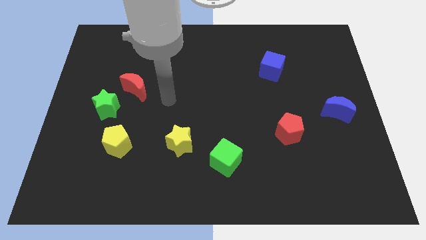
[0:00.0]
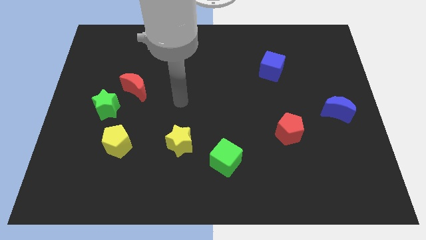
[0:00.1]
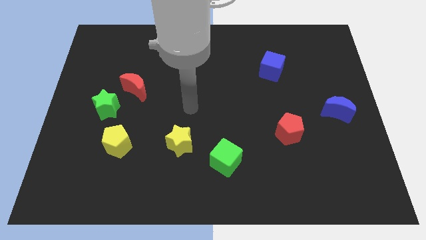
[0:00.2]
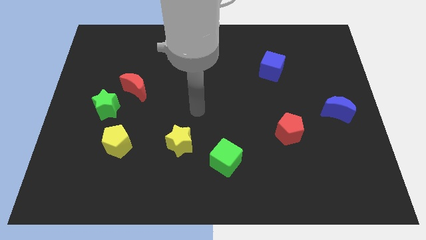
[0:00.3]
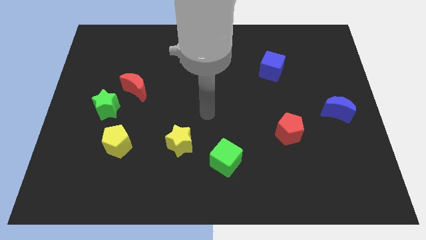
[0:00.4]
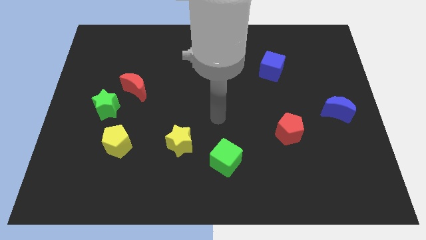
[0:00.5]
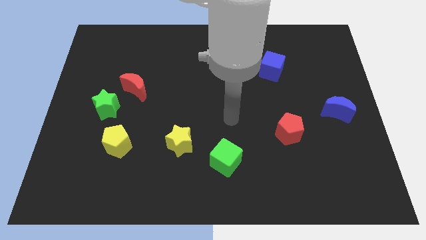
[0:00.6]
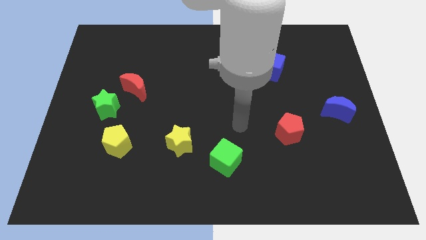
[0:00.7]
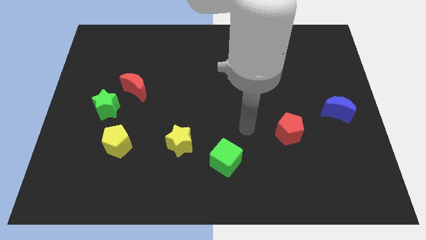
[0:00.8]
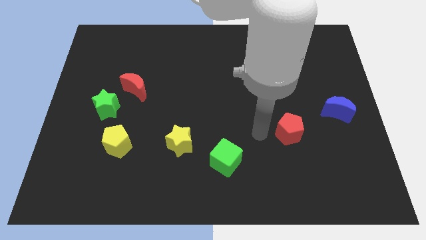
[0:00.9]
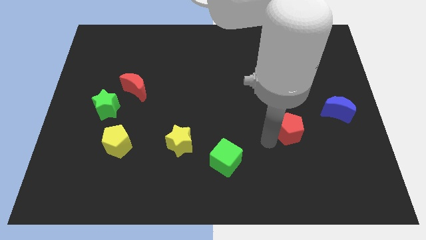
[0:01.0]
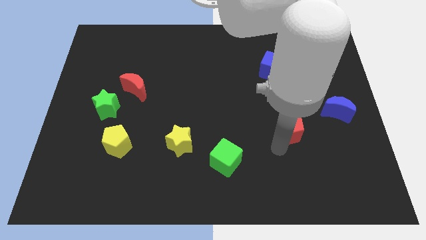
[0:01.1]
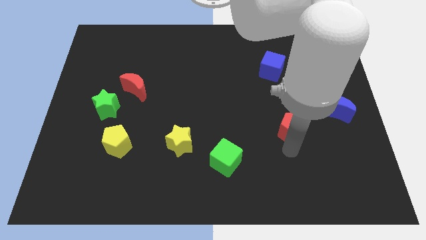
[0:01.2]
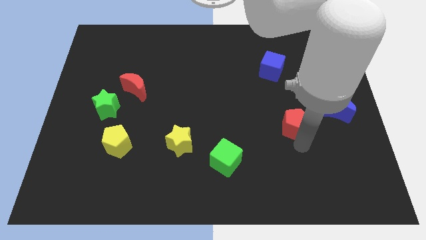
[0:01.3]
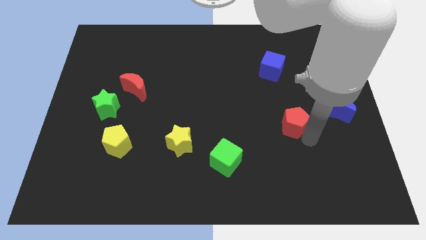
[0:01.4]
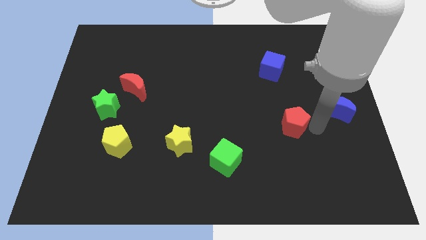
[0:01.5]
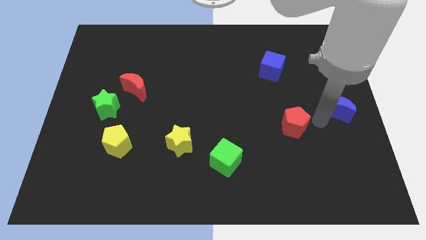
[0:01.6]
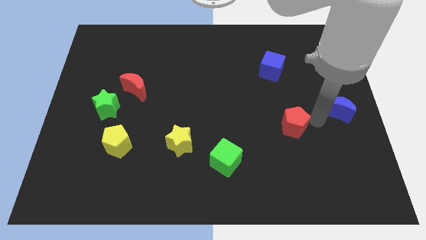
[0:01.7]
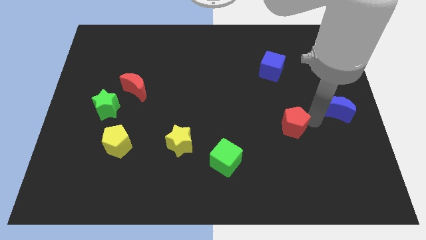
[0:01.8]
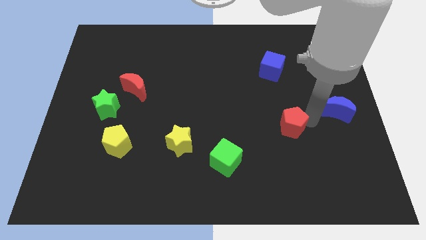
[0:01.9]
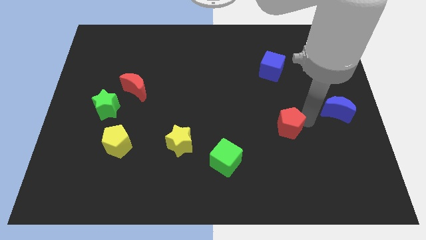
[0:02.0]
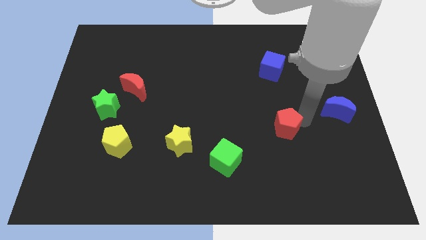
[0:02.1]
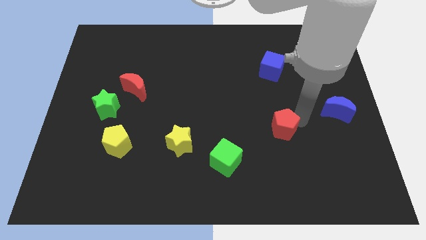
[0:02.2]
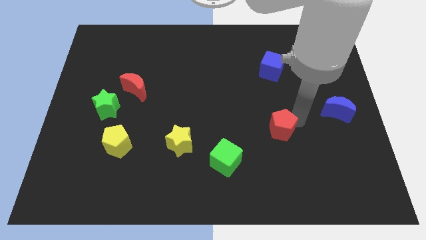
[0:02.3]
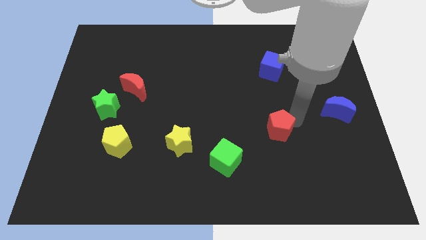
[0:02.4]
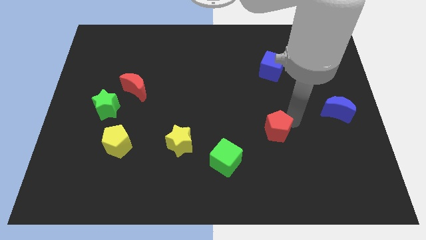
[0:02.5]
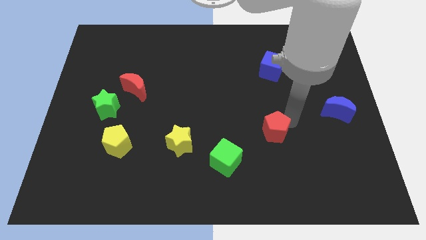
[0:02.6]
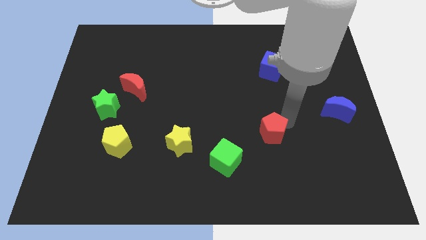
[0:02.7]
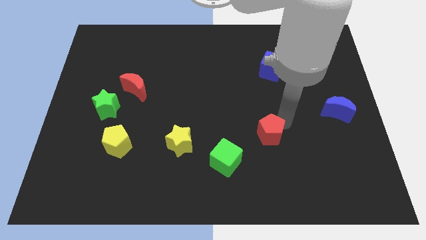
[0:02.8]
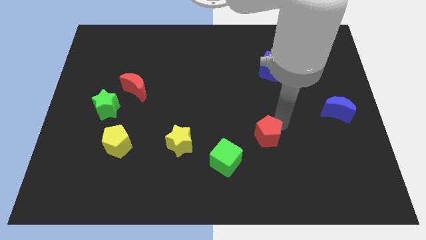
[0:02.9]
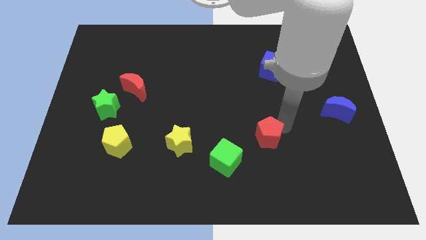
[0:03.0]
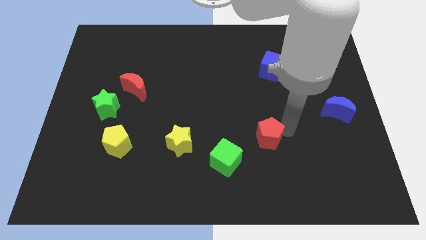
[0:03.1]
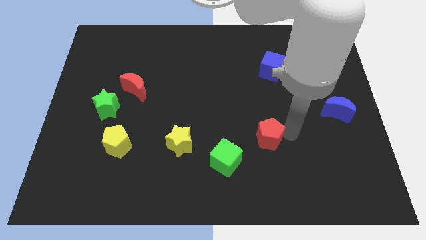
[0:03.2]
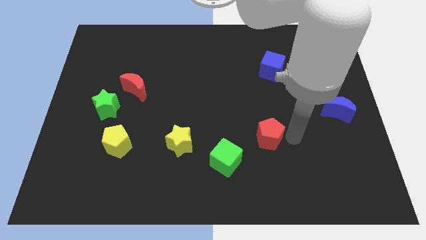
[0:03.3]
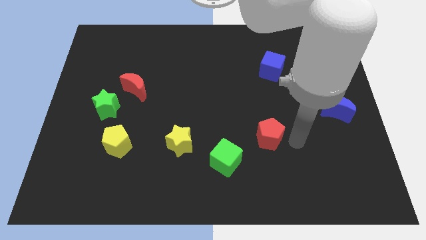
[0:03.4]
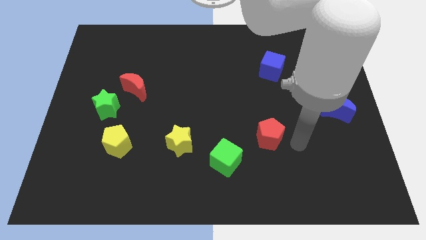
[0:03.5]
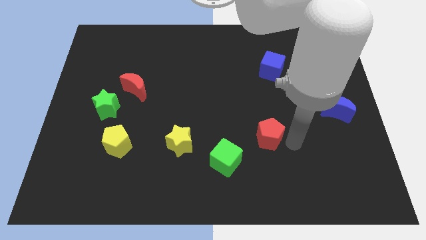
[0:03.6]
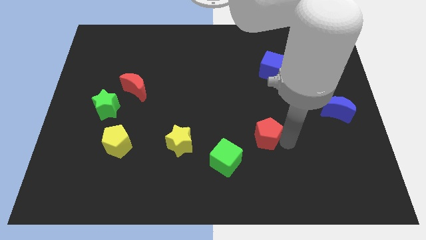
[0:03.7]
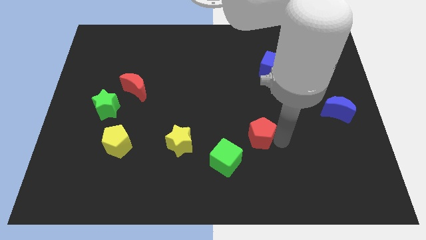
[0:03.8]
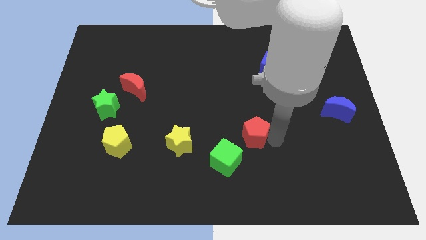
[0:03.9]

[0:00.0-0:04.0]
push the red pentagon left slightly

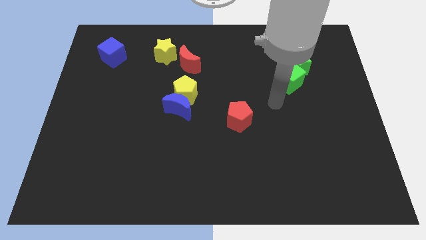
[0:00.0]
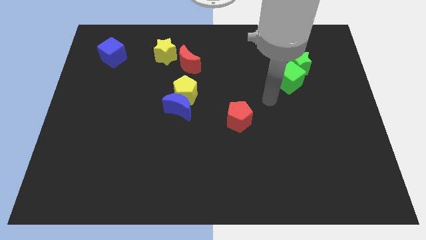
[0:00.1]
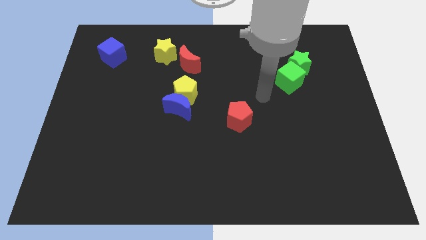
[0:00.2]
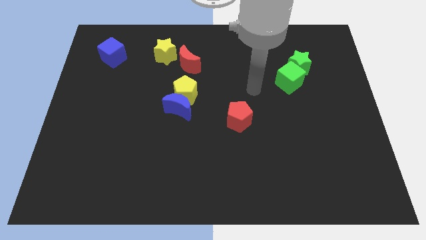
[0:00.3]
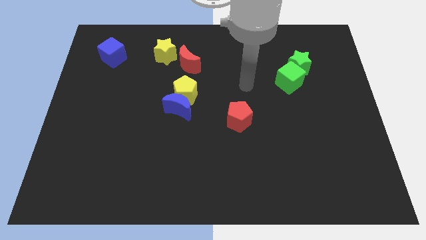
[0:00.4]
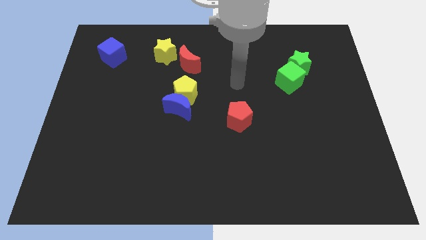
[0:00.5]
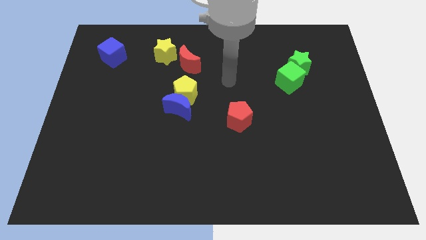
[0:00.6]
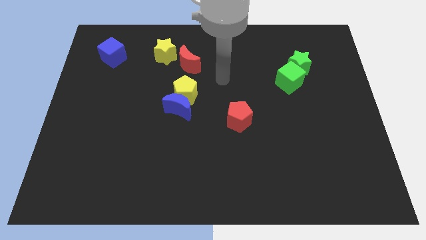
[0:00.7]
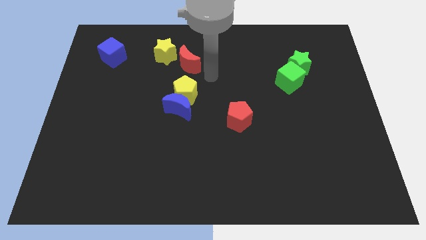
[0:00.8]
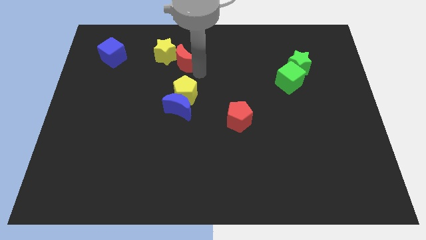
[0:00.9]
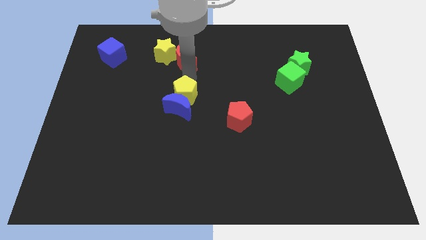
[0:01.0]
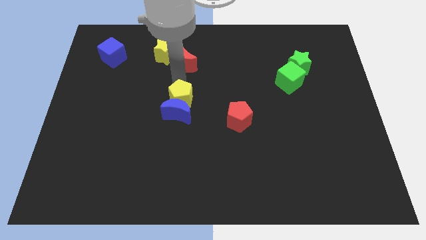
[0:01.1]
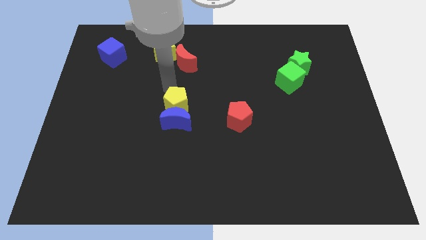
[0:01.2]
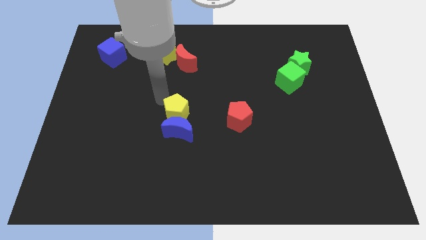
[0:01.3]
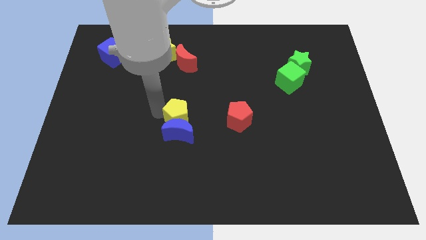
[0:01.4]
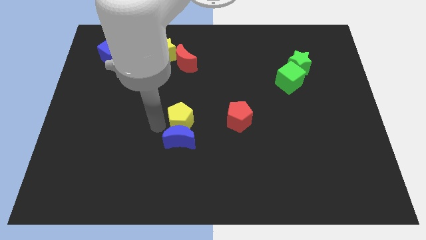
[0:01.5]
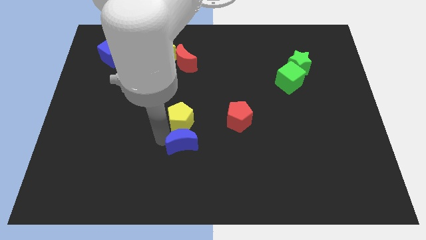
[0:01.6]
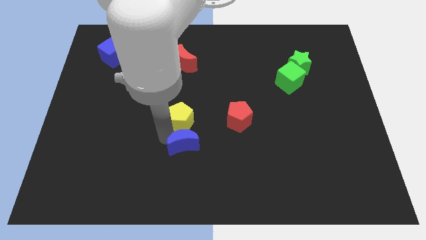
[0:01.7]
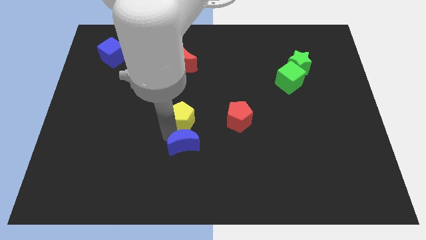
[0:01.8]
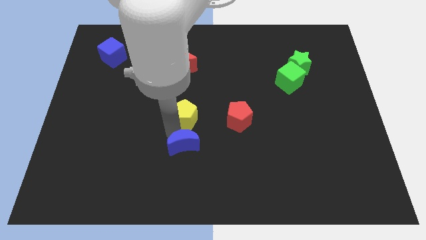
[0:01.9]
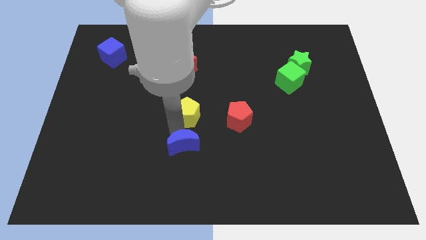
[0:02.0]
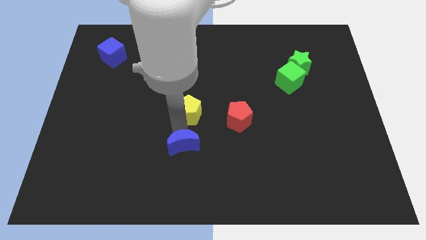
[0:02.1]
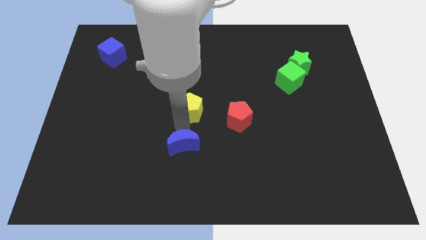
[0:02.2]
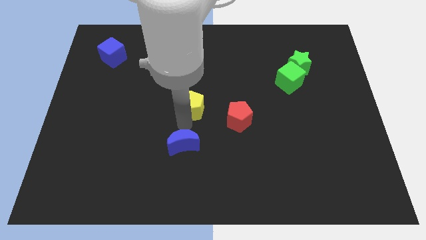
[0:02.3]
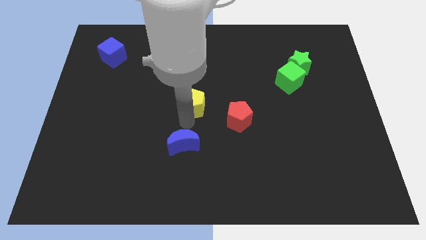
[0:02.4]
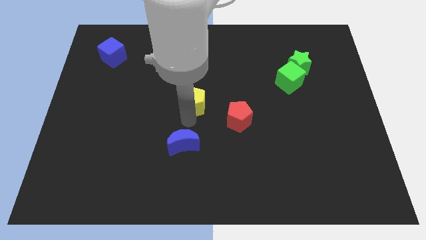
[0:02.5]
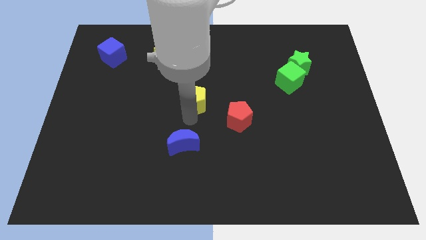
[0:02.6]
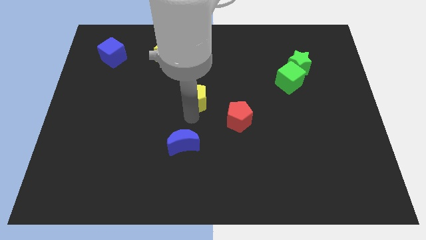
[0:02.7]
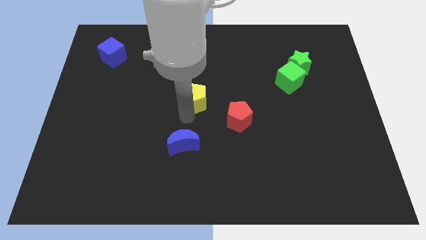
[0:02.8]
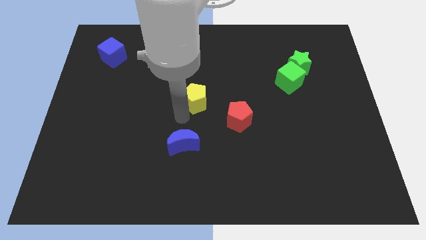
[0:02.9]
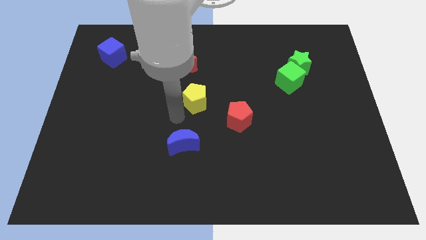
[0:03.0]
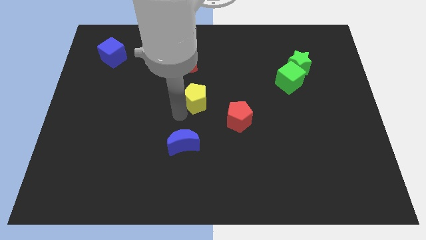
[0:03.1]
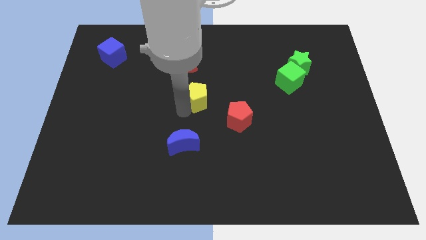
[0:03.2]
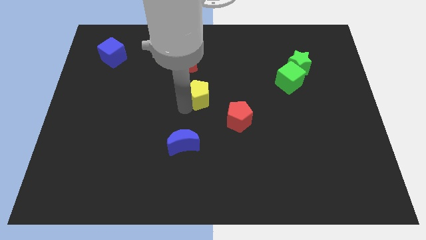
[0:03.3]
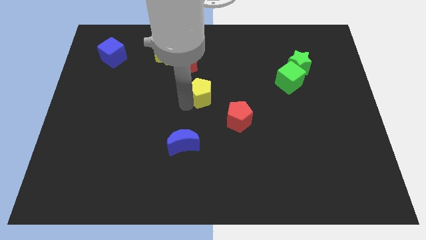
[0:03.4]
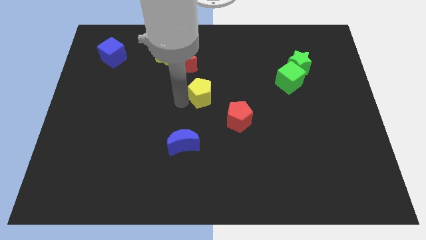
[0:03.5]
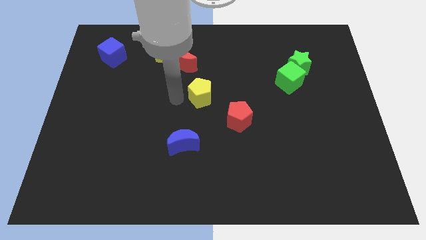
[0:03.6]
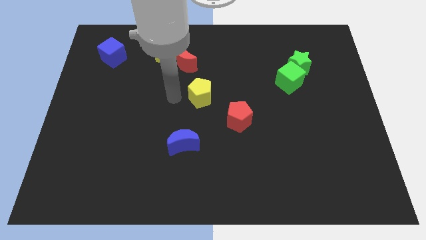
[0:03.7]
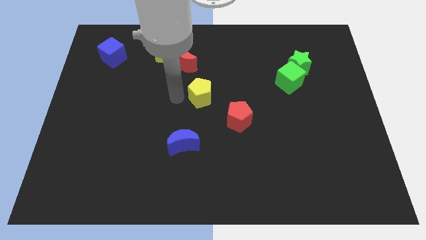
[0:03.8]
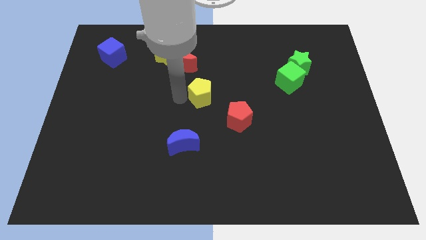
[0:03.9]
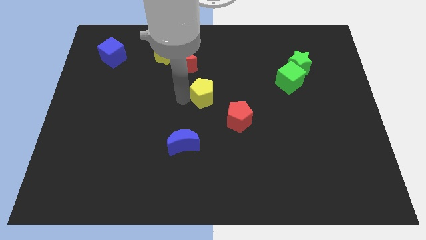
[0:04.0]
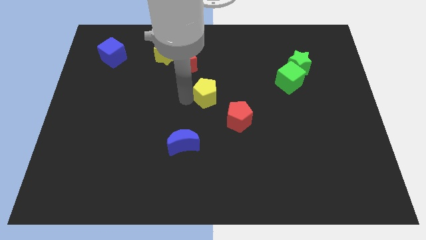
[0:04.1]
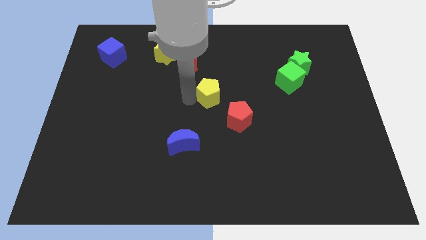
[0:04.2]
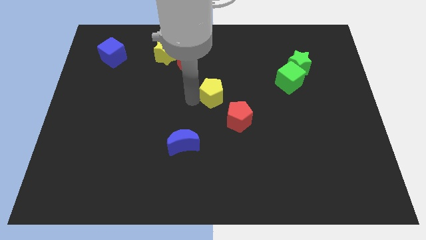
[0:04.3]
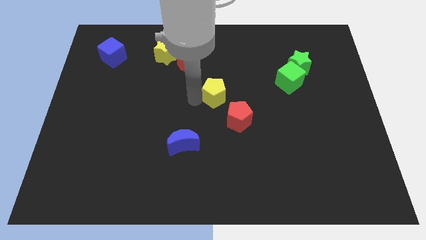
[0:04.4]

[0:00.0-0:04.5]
slightly move the yellow pentagon to the right
